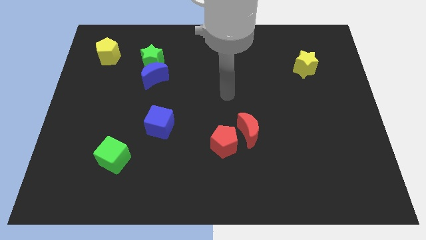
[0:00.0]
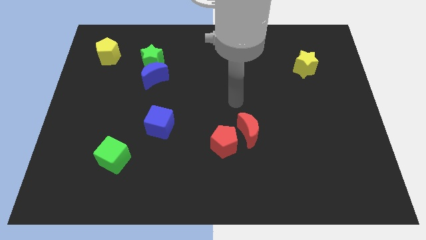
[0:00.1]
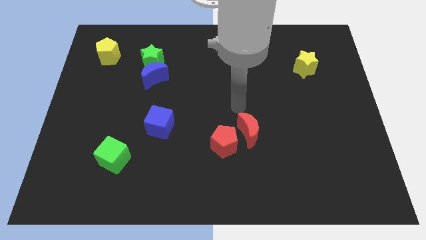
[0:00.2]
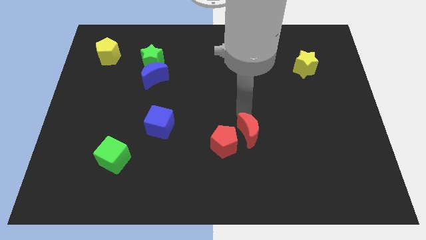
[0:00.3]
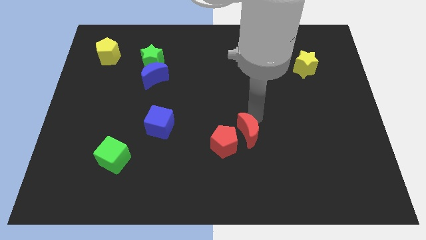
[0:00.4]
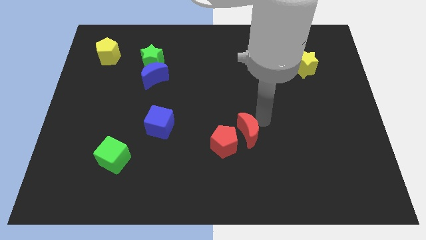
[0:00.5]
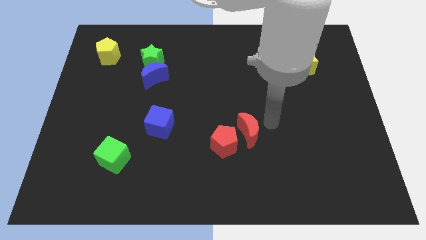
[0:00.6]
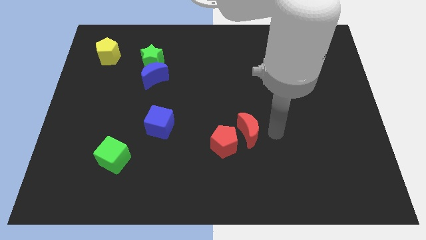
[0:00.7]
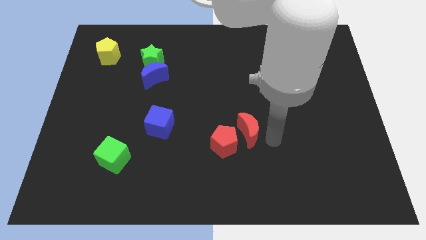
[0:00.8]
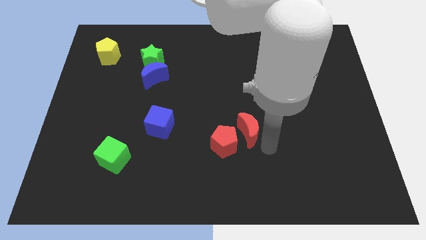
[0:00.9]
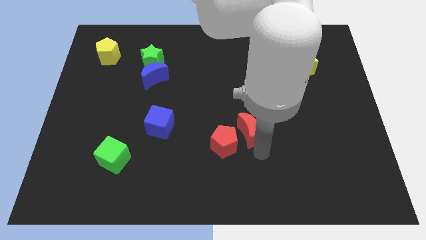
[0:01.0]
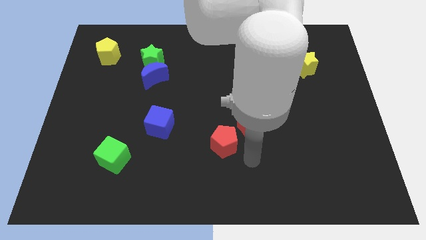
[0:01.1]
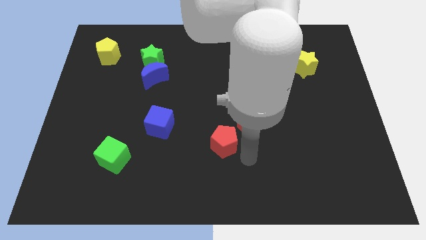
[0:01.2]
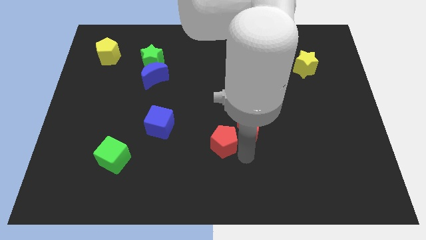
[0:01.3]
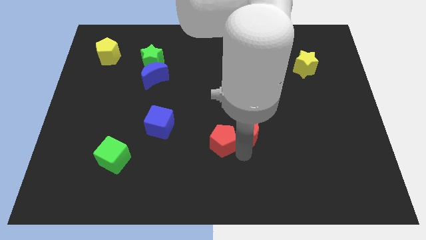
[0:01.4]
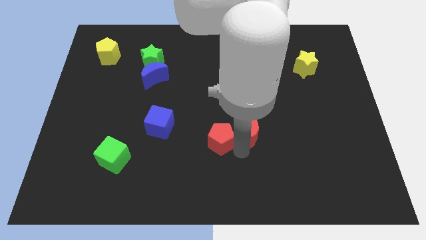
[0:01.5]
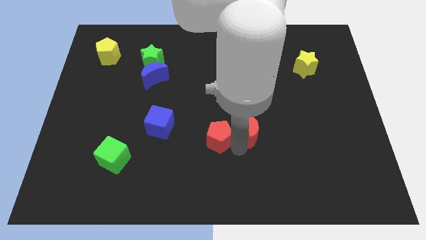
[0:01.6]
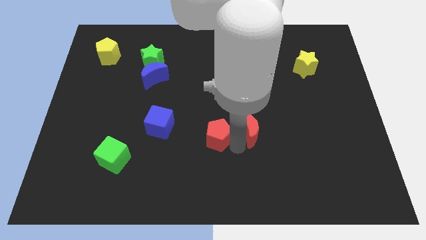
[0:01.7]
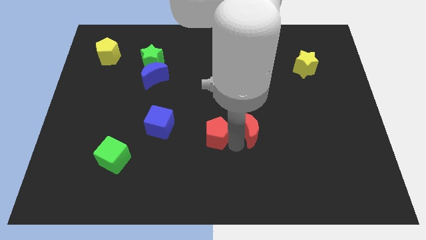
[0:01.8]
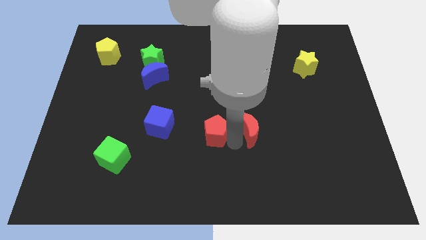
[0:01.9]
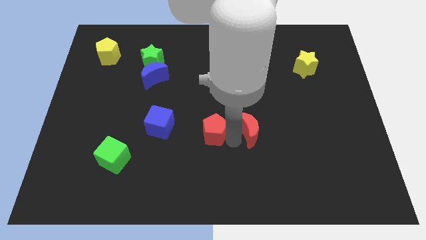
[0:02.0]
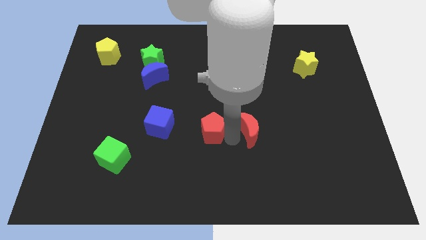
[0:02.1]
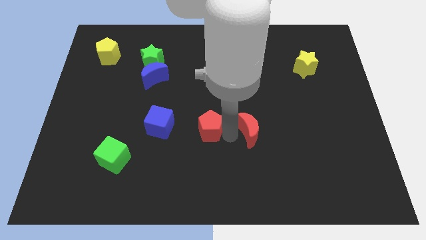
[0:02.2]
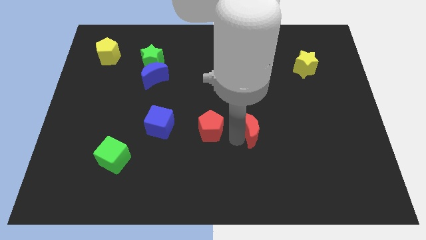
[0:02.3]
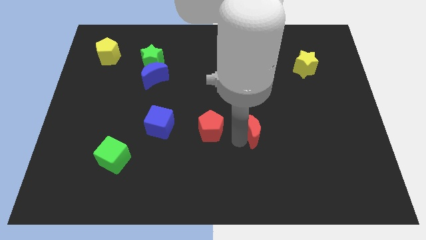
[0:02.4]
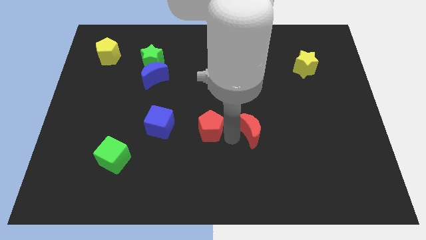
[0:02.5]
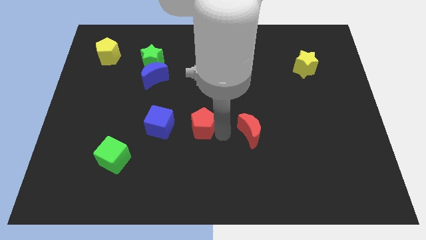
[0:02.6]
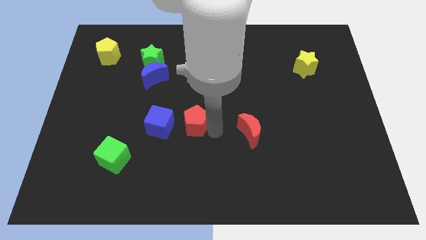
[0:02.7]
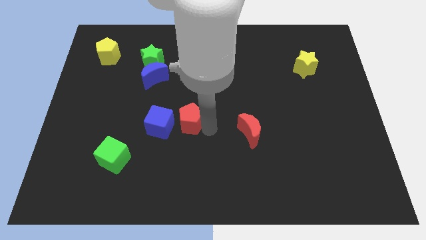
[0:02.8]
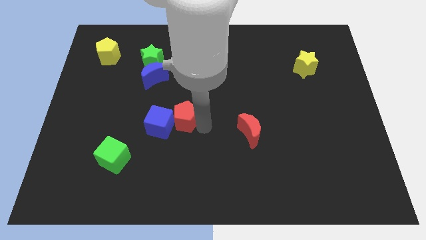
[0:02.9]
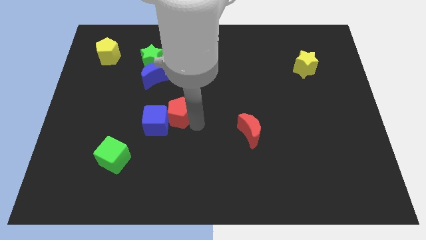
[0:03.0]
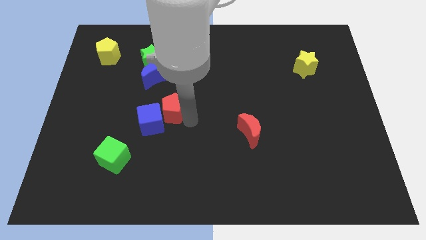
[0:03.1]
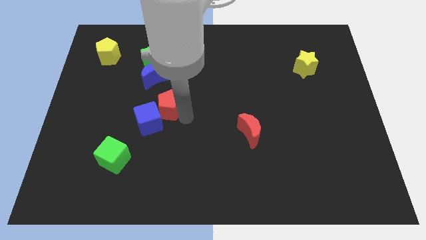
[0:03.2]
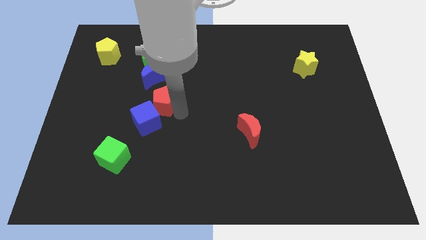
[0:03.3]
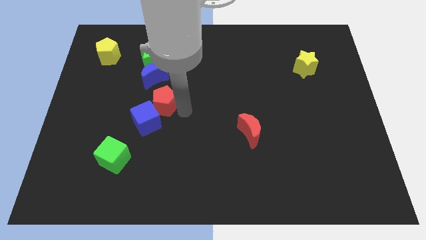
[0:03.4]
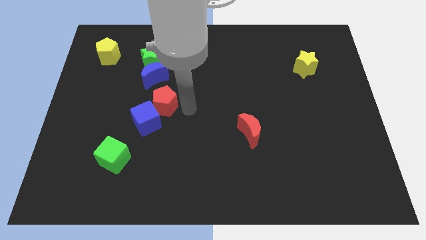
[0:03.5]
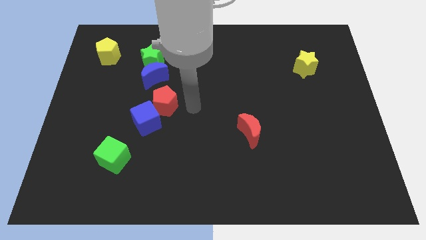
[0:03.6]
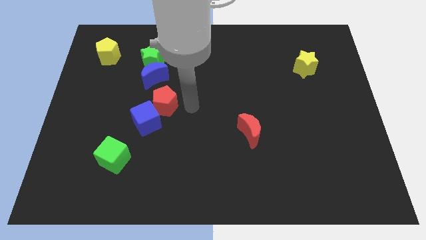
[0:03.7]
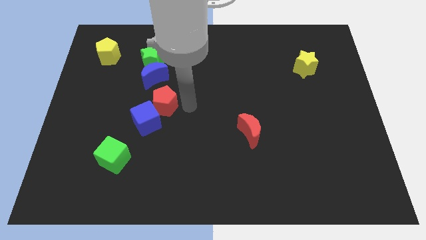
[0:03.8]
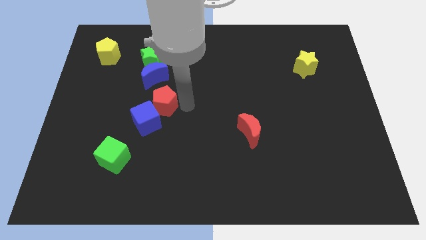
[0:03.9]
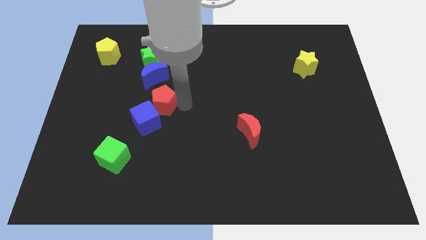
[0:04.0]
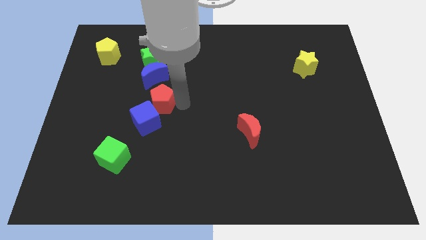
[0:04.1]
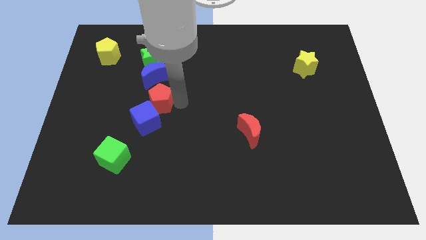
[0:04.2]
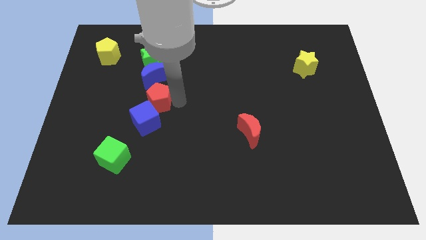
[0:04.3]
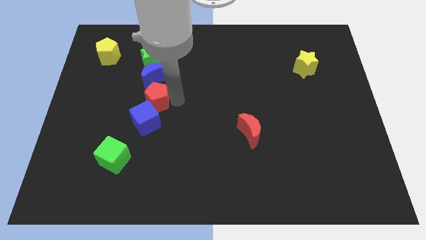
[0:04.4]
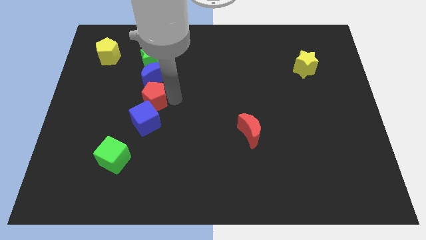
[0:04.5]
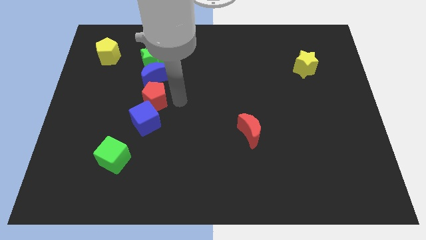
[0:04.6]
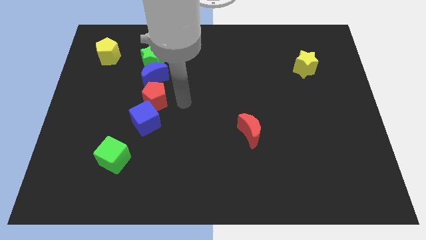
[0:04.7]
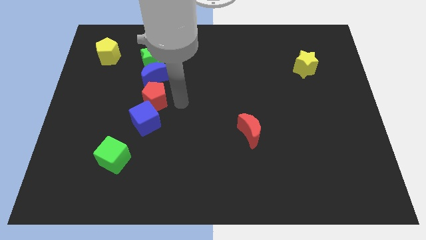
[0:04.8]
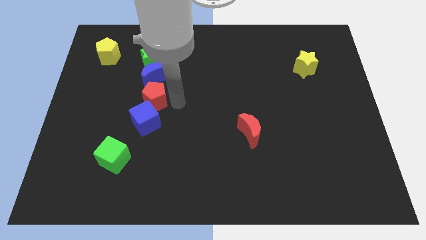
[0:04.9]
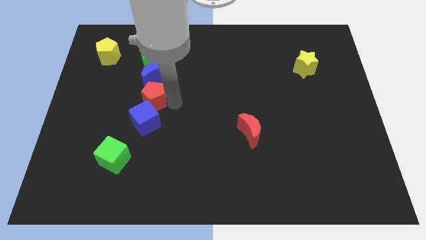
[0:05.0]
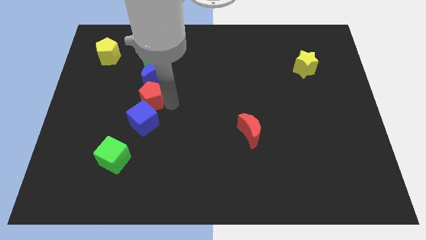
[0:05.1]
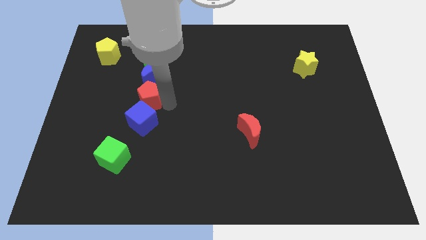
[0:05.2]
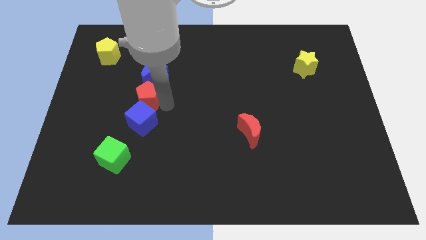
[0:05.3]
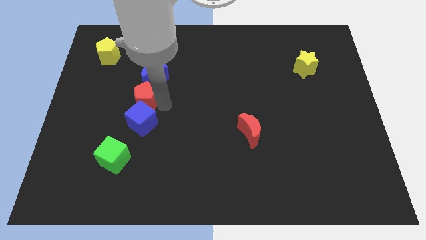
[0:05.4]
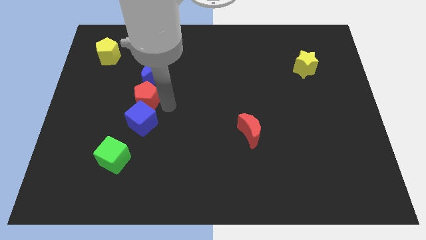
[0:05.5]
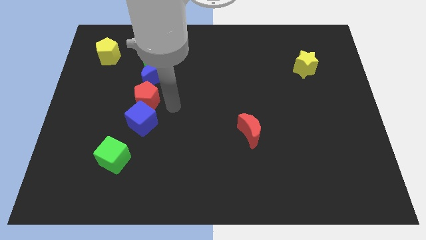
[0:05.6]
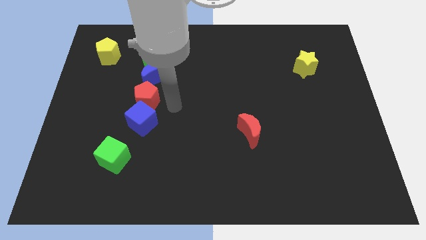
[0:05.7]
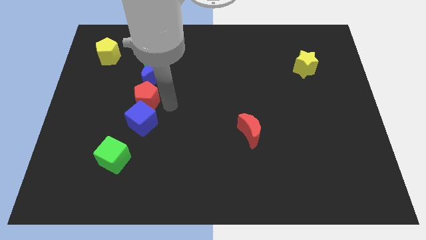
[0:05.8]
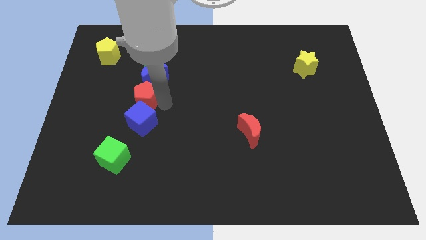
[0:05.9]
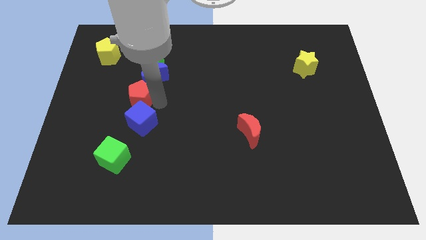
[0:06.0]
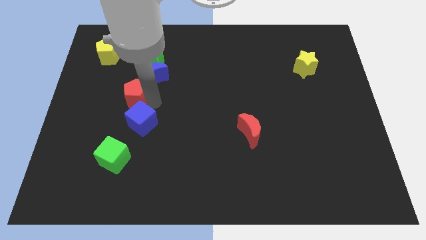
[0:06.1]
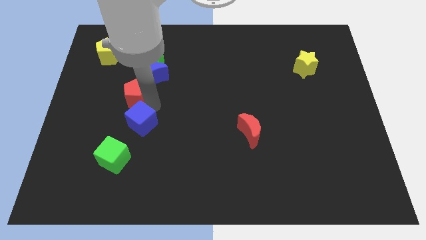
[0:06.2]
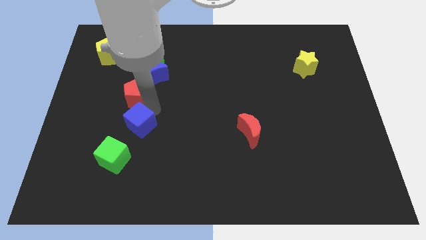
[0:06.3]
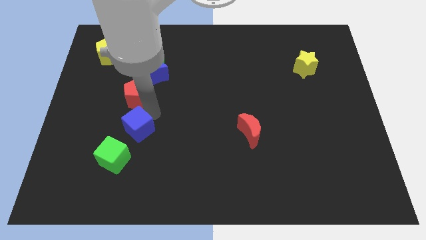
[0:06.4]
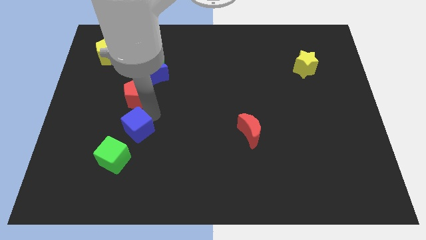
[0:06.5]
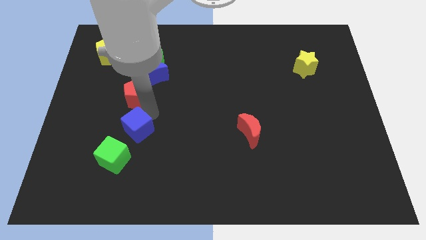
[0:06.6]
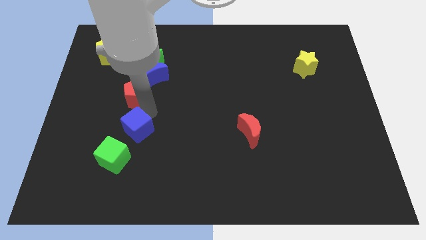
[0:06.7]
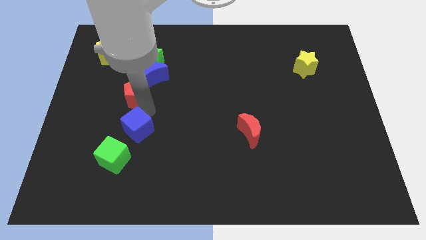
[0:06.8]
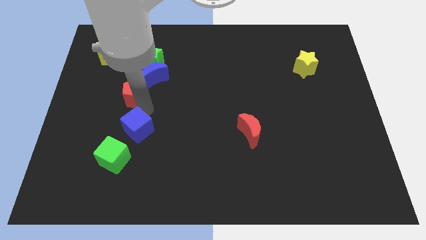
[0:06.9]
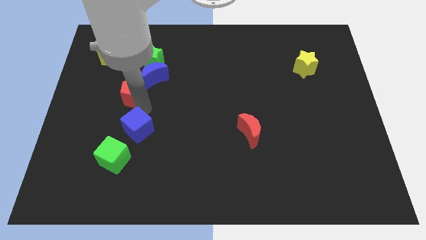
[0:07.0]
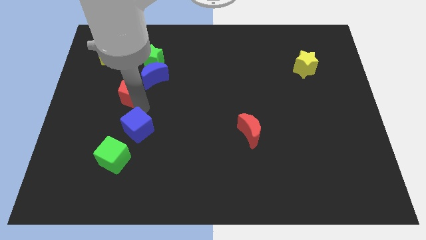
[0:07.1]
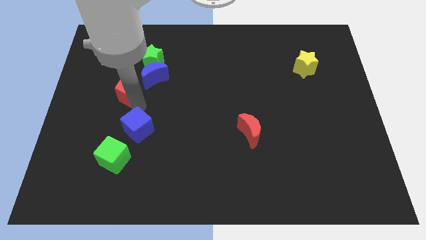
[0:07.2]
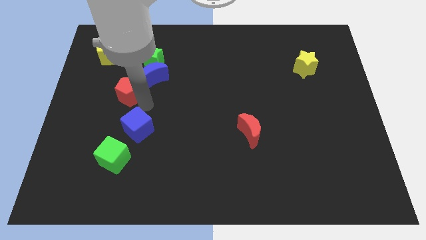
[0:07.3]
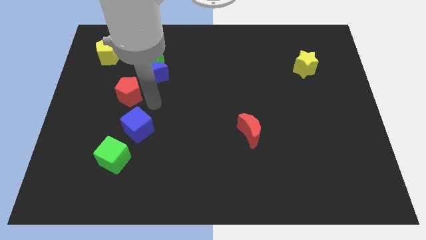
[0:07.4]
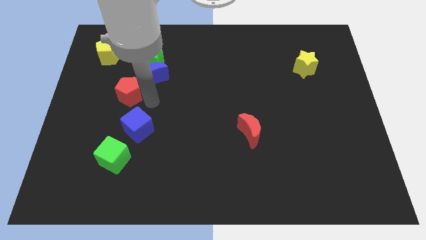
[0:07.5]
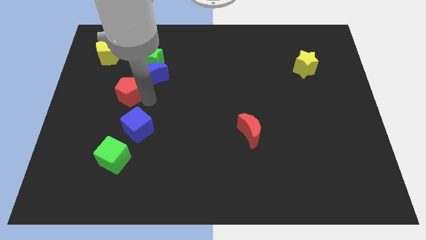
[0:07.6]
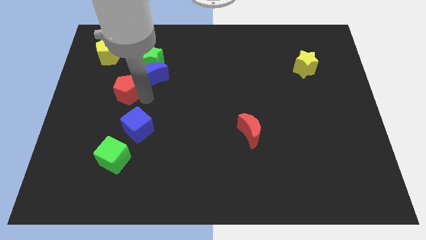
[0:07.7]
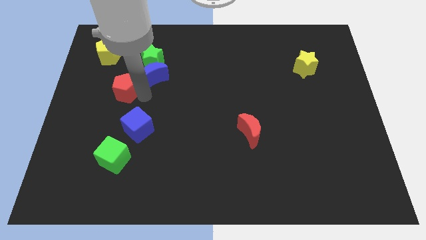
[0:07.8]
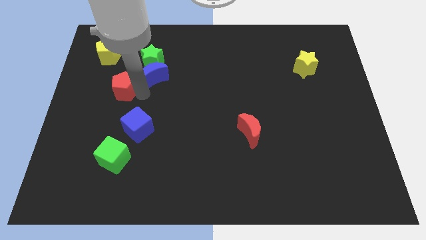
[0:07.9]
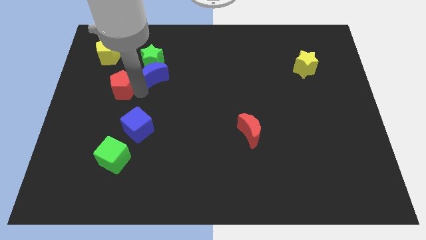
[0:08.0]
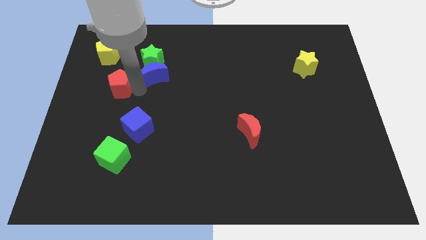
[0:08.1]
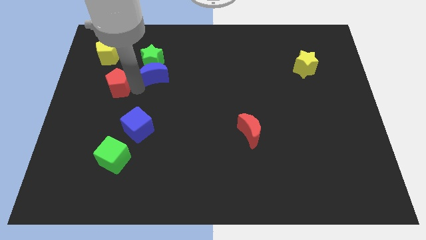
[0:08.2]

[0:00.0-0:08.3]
push the red pentagon to the bottom of the yellow pentagon
